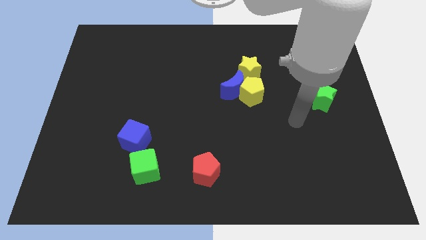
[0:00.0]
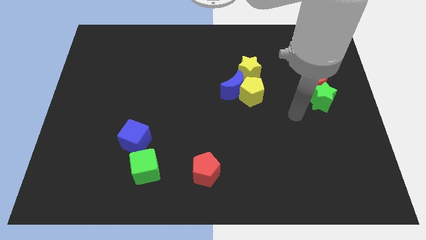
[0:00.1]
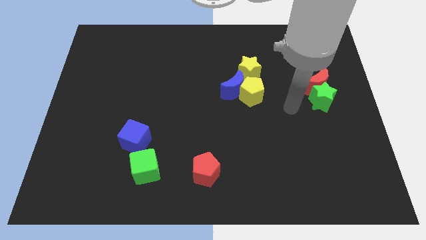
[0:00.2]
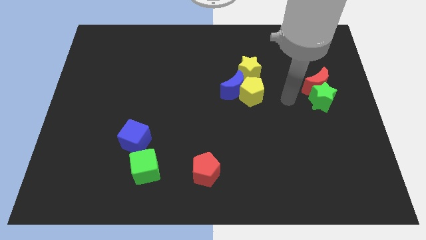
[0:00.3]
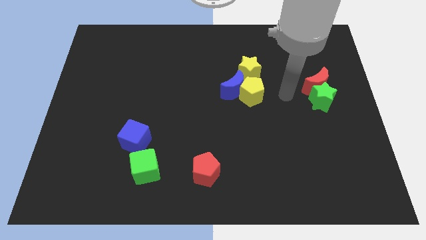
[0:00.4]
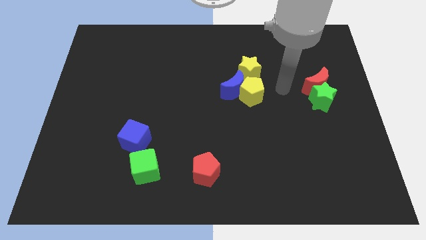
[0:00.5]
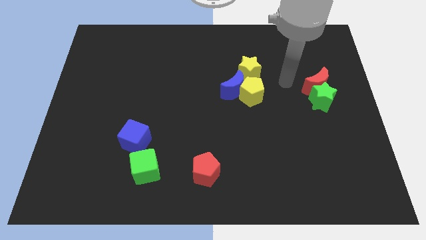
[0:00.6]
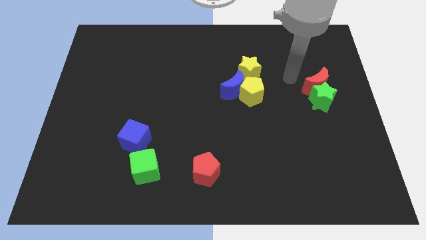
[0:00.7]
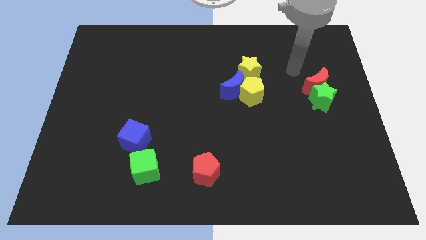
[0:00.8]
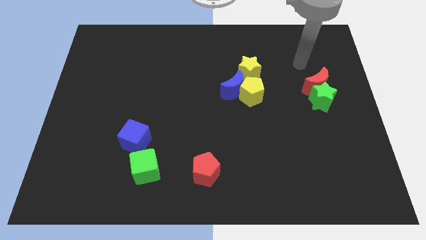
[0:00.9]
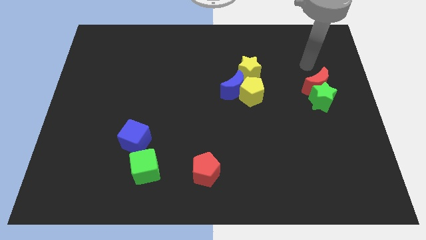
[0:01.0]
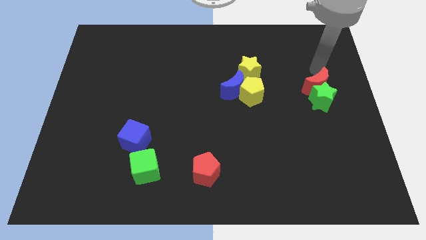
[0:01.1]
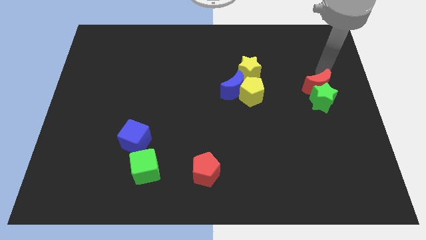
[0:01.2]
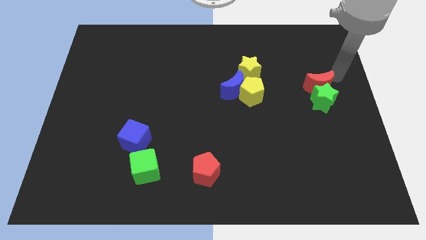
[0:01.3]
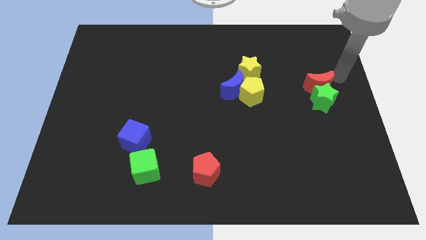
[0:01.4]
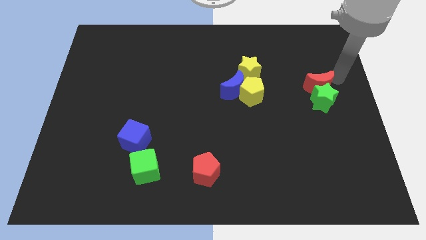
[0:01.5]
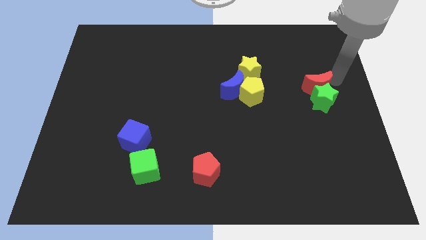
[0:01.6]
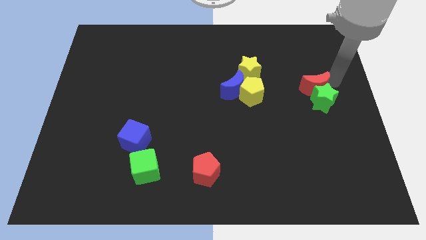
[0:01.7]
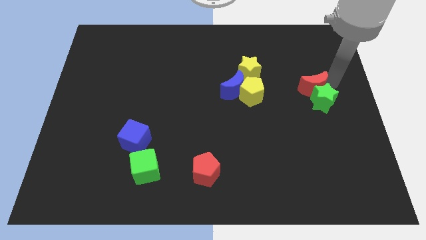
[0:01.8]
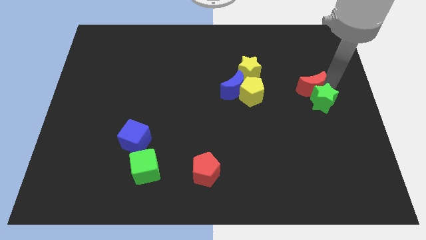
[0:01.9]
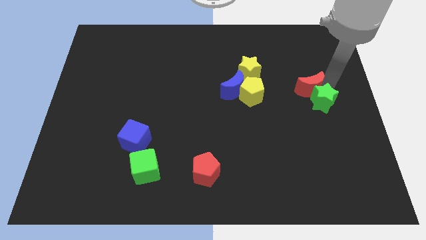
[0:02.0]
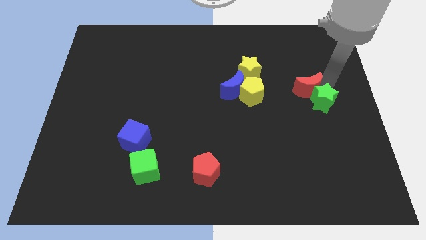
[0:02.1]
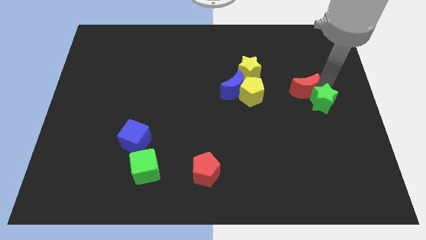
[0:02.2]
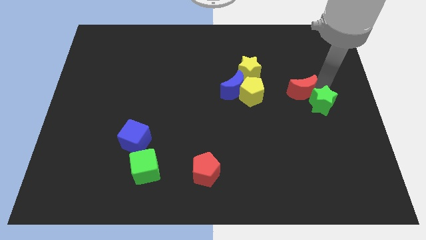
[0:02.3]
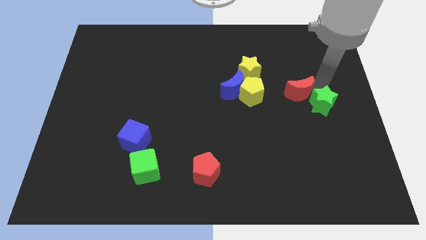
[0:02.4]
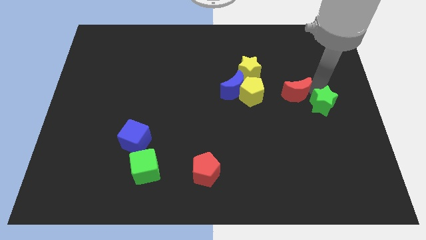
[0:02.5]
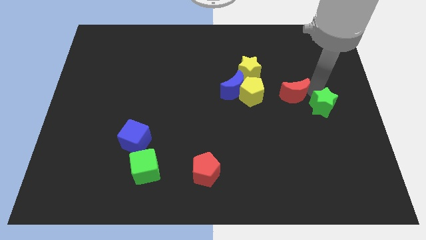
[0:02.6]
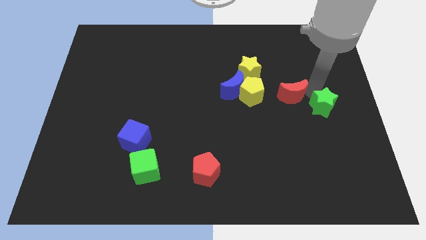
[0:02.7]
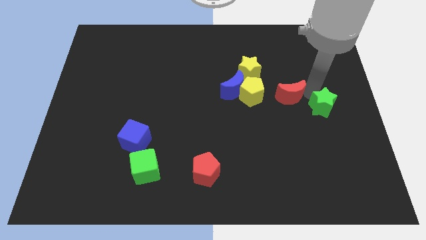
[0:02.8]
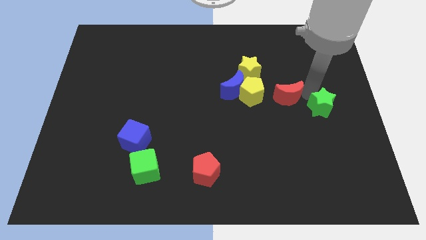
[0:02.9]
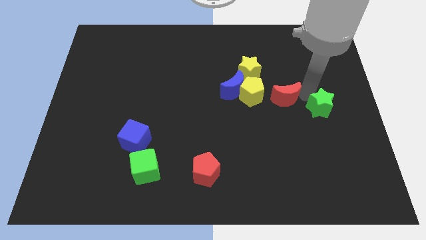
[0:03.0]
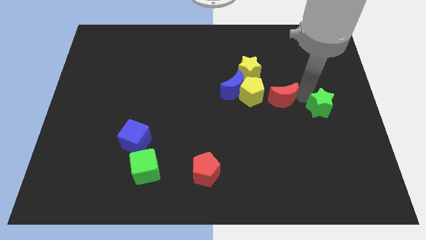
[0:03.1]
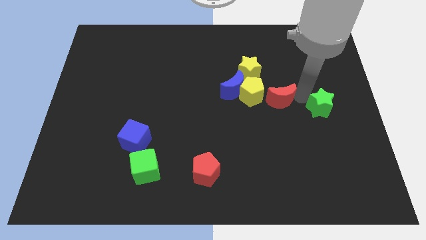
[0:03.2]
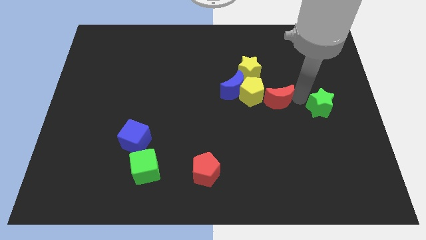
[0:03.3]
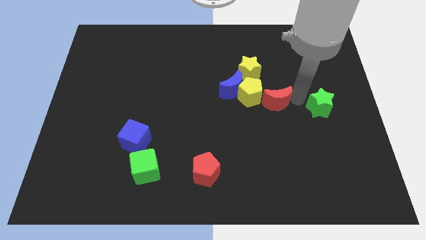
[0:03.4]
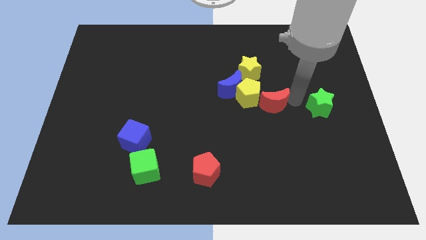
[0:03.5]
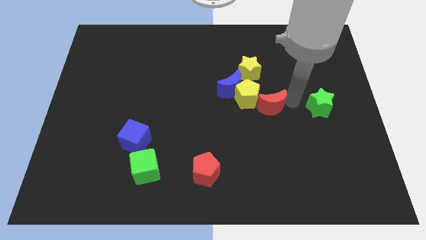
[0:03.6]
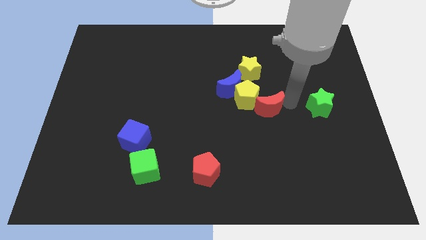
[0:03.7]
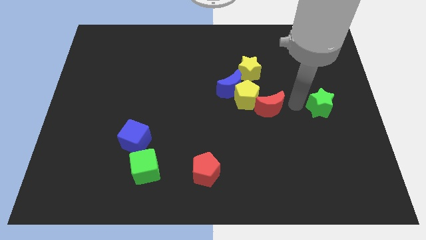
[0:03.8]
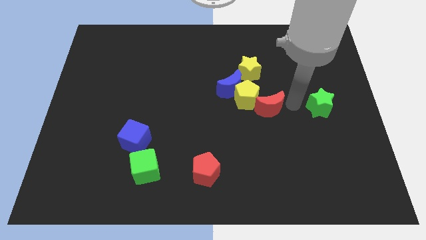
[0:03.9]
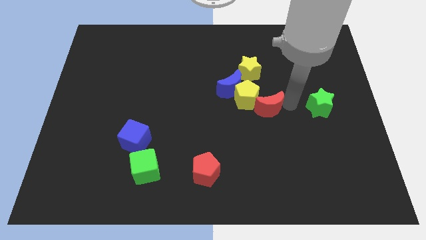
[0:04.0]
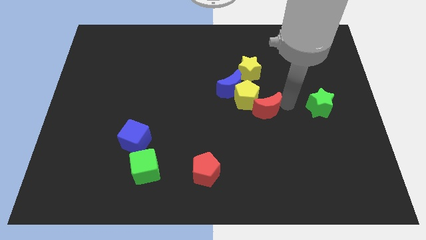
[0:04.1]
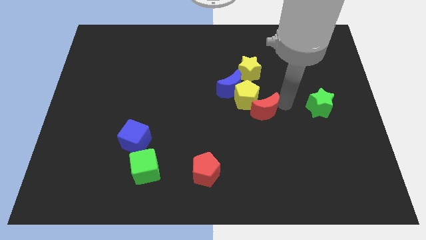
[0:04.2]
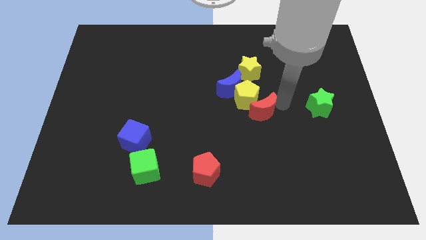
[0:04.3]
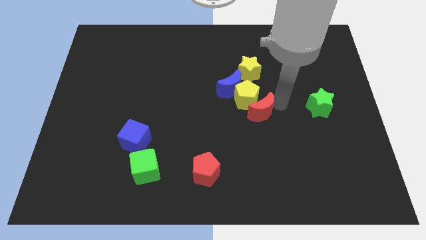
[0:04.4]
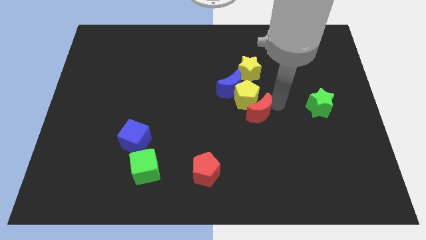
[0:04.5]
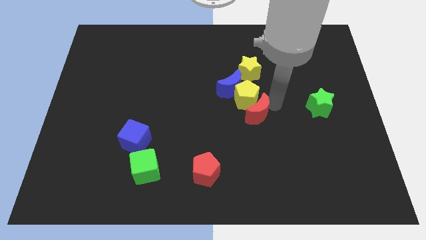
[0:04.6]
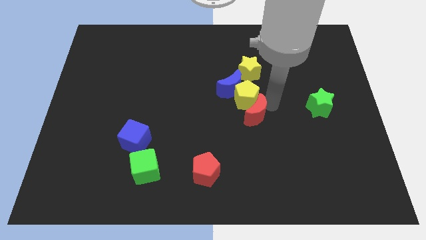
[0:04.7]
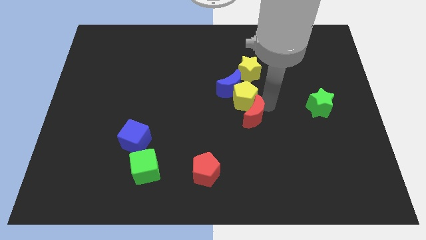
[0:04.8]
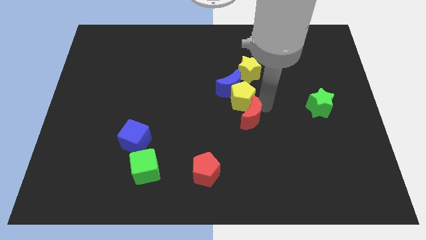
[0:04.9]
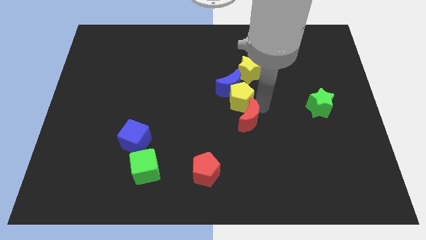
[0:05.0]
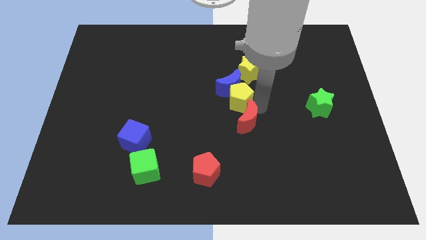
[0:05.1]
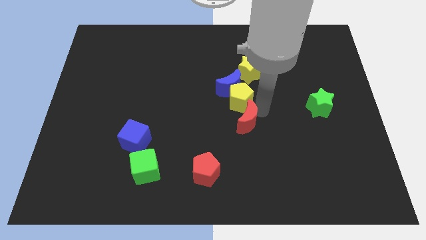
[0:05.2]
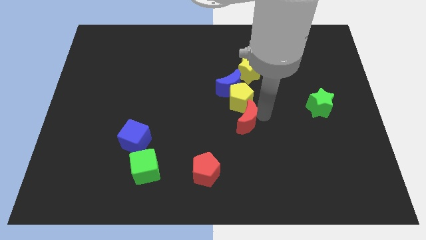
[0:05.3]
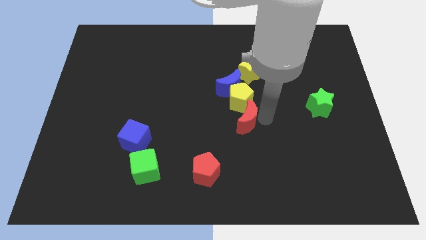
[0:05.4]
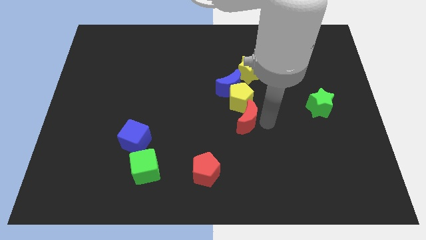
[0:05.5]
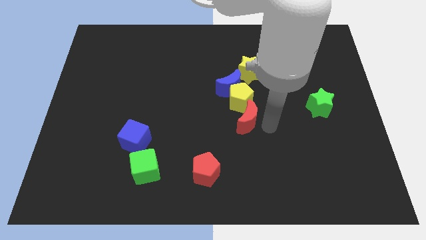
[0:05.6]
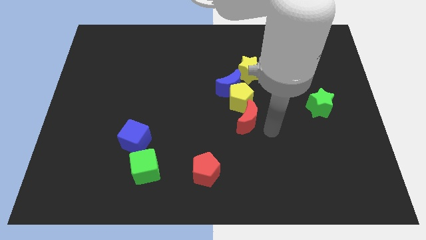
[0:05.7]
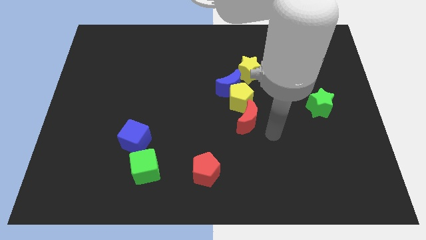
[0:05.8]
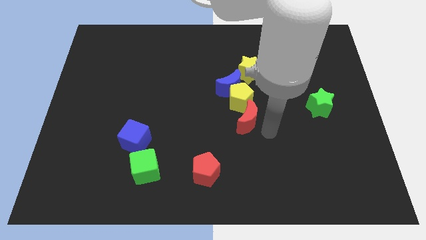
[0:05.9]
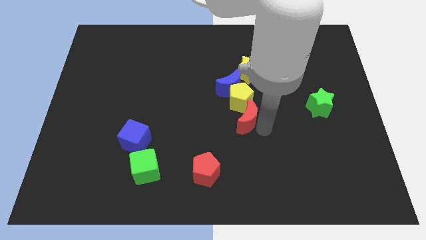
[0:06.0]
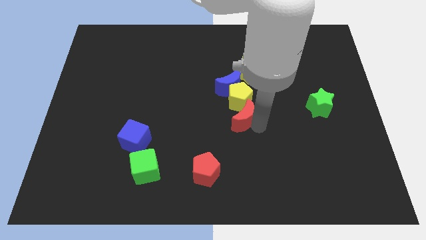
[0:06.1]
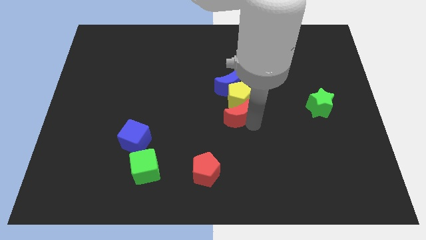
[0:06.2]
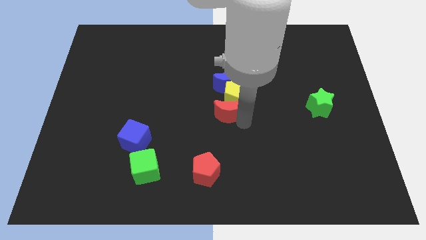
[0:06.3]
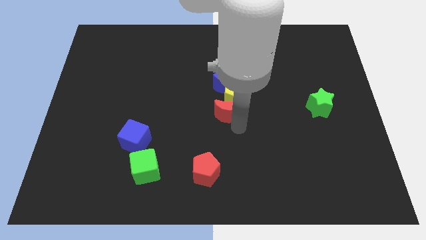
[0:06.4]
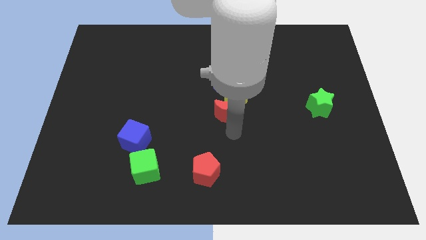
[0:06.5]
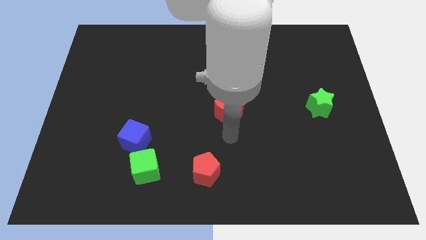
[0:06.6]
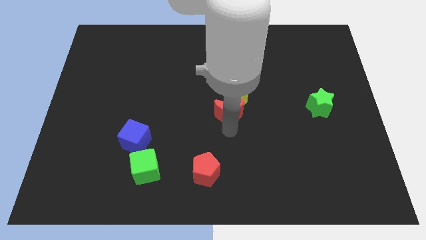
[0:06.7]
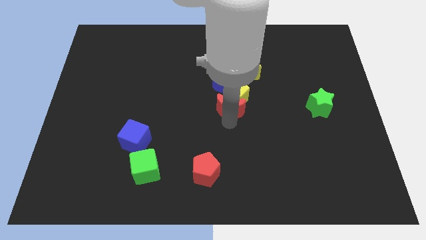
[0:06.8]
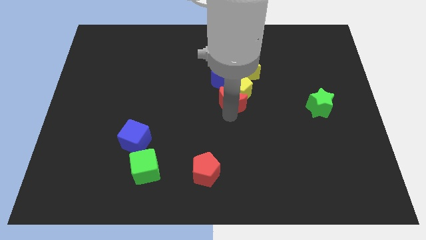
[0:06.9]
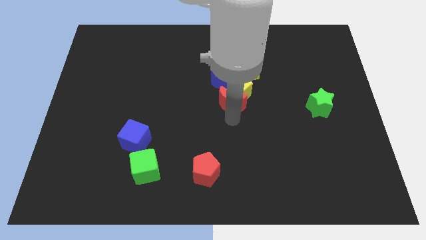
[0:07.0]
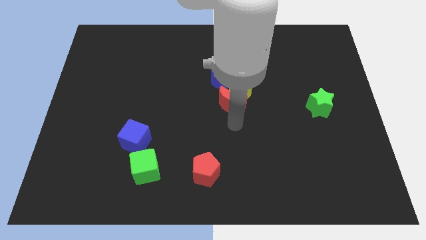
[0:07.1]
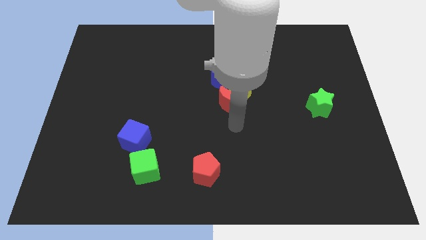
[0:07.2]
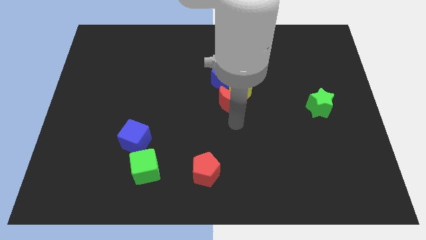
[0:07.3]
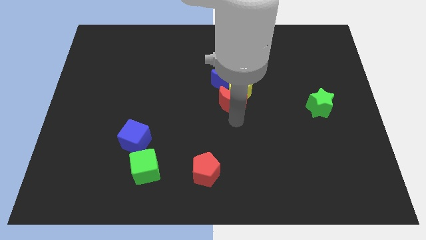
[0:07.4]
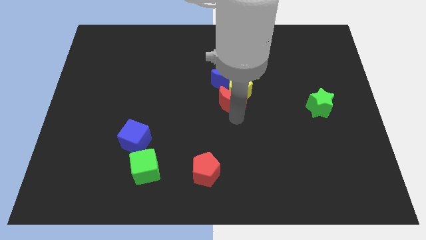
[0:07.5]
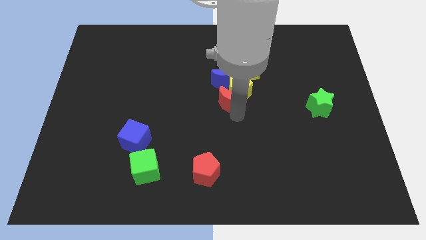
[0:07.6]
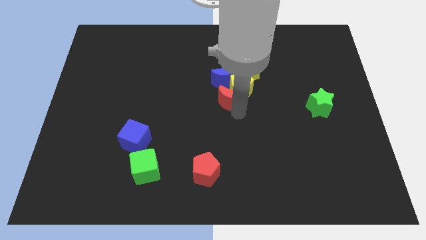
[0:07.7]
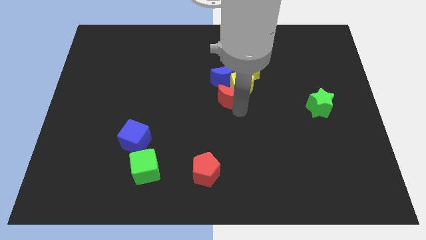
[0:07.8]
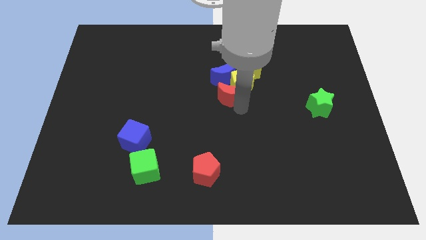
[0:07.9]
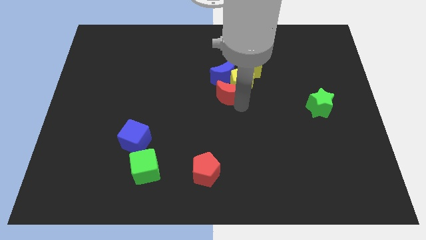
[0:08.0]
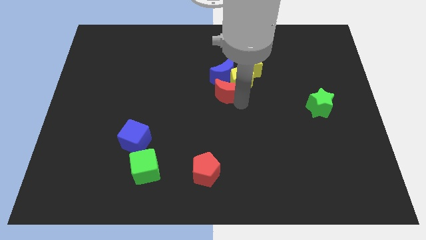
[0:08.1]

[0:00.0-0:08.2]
push the red moon close to the blue moon
